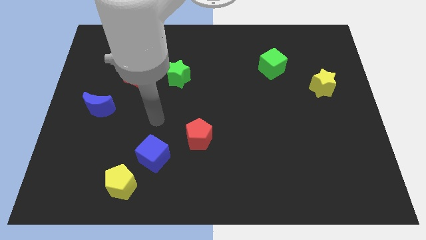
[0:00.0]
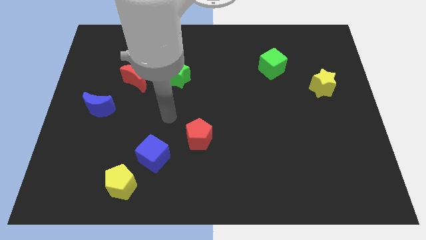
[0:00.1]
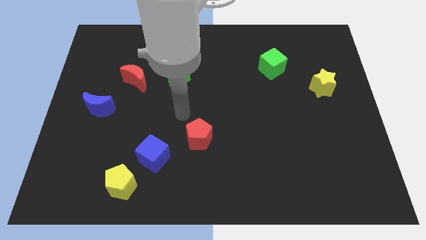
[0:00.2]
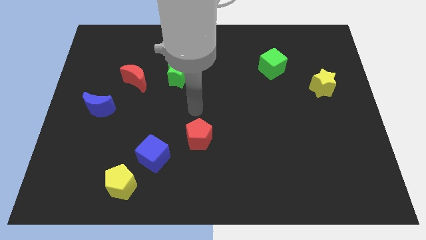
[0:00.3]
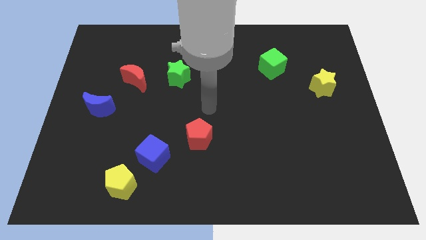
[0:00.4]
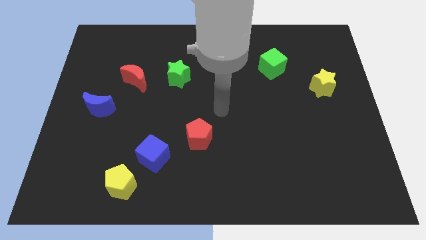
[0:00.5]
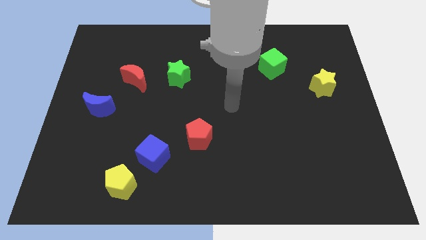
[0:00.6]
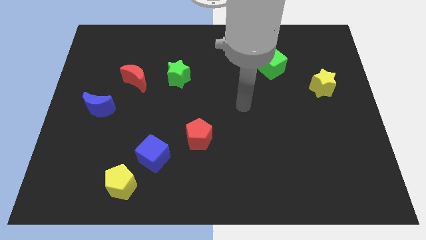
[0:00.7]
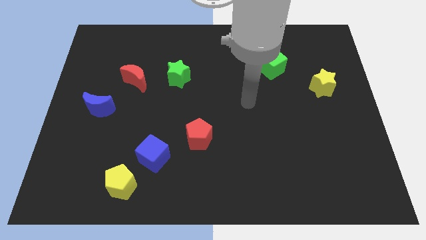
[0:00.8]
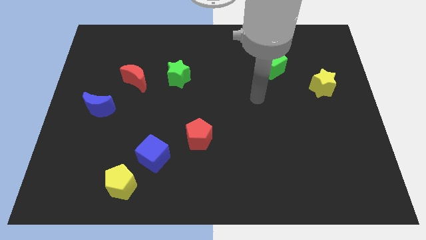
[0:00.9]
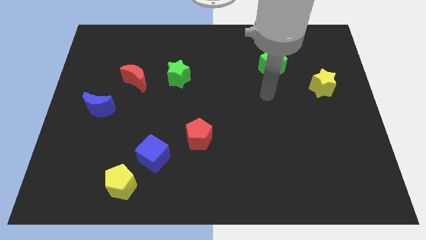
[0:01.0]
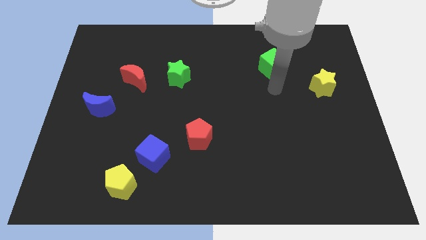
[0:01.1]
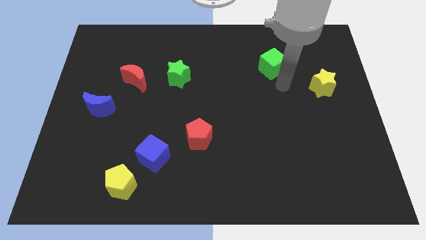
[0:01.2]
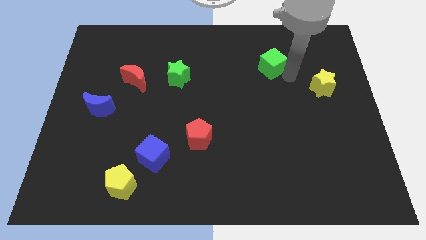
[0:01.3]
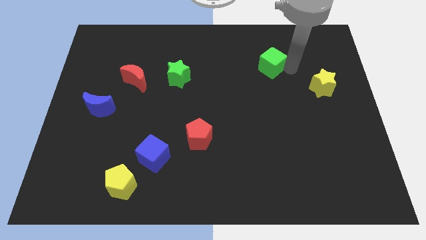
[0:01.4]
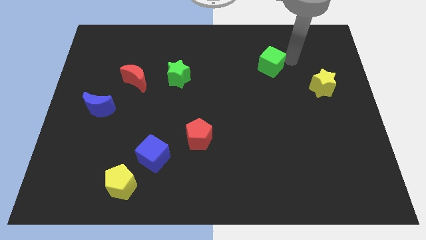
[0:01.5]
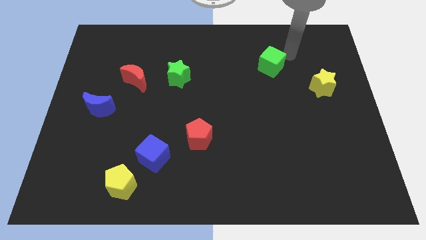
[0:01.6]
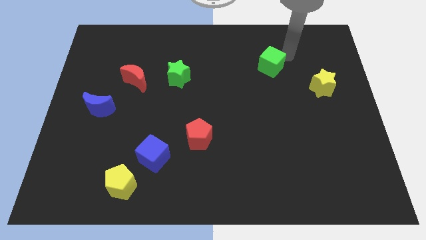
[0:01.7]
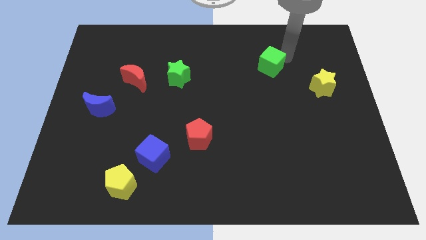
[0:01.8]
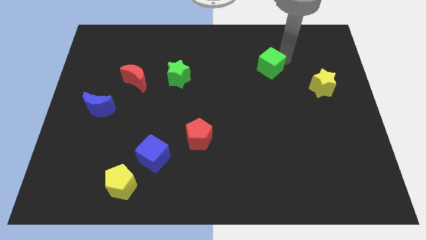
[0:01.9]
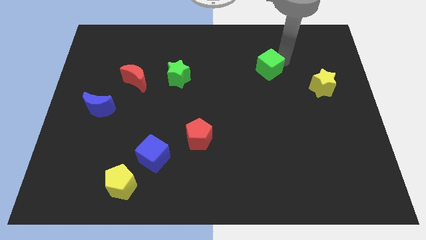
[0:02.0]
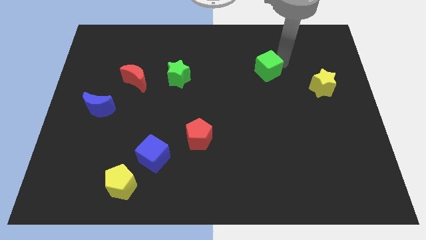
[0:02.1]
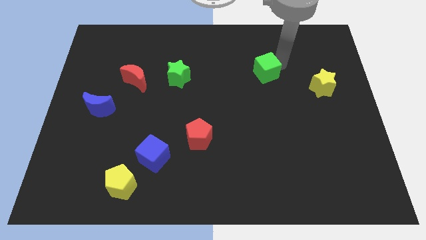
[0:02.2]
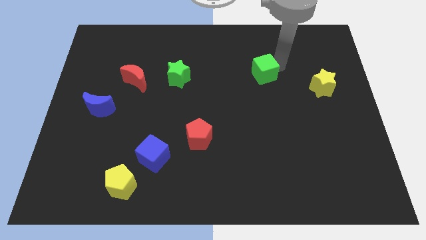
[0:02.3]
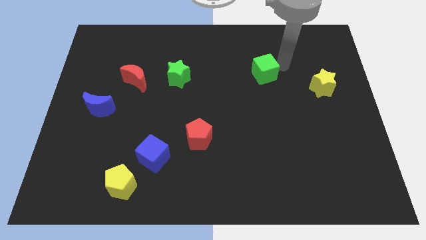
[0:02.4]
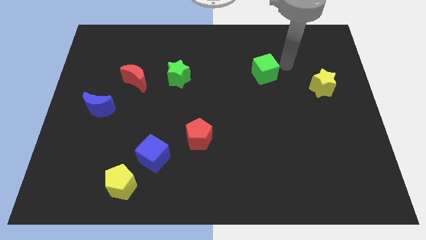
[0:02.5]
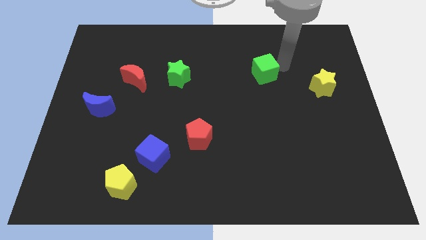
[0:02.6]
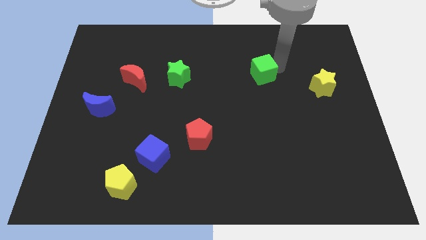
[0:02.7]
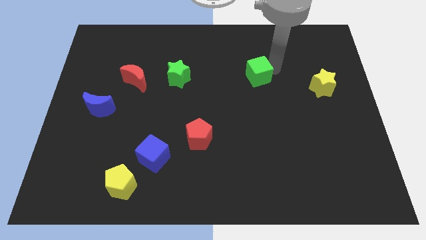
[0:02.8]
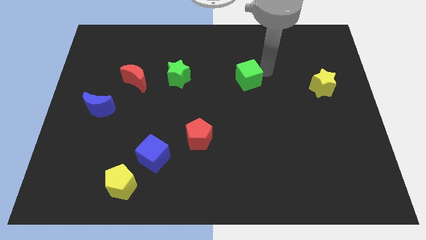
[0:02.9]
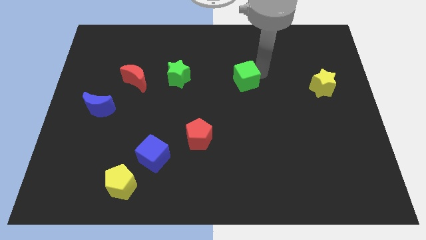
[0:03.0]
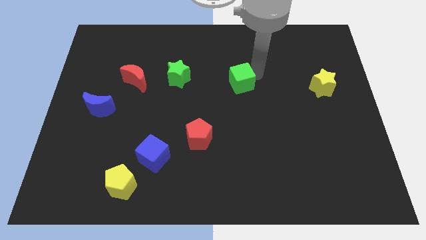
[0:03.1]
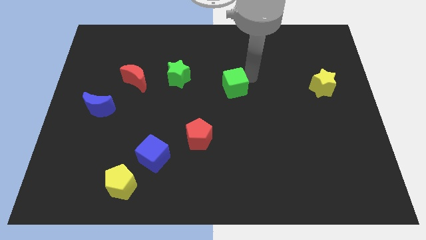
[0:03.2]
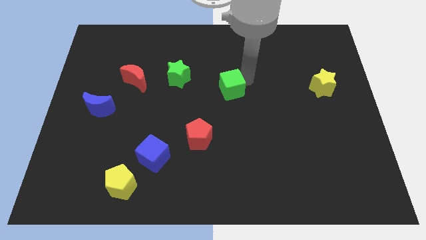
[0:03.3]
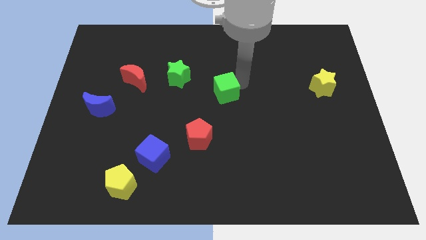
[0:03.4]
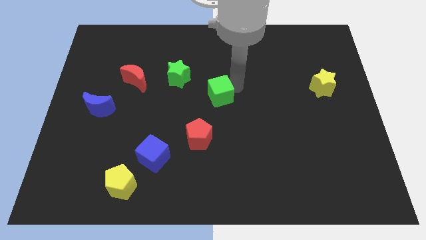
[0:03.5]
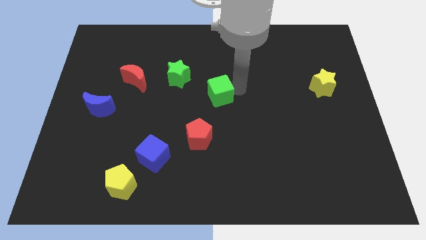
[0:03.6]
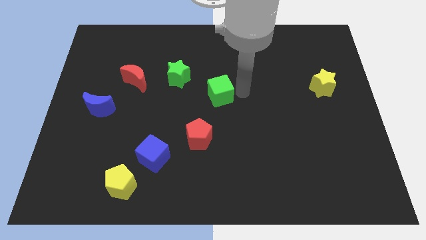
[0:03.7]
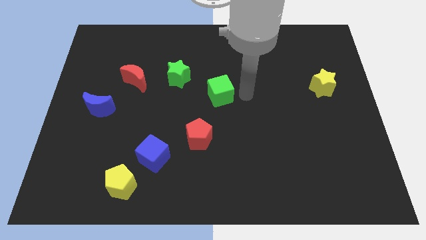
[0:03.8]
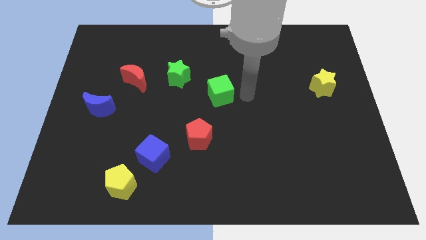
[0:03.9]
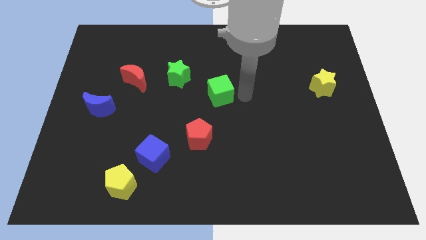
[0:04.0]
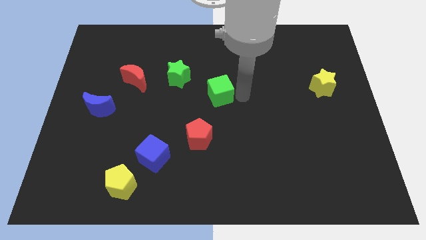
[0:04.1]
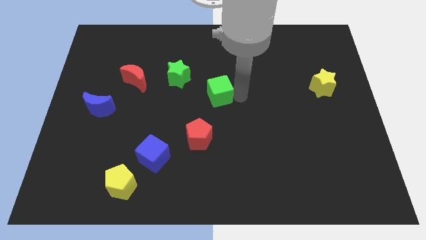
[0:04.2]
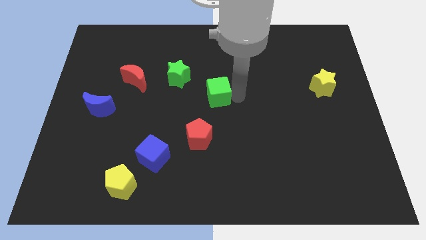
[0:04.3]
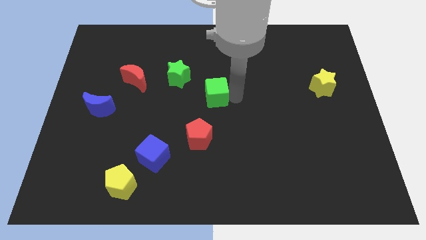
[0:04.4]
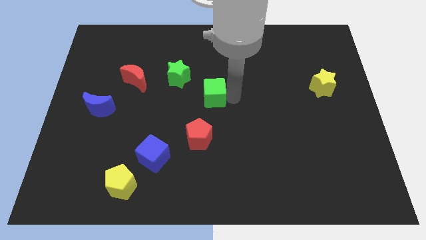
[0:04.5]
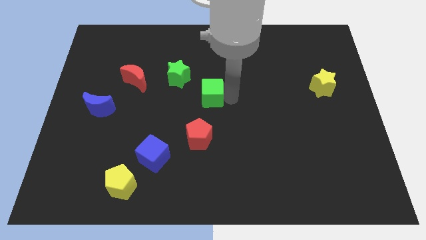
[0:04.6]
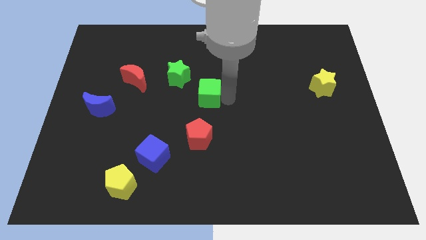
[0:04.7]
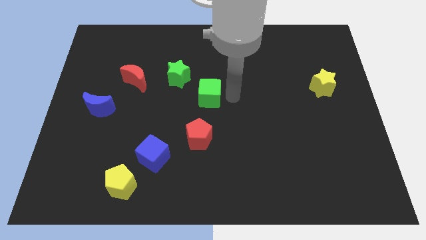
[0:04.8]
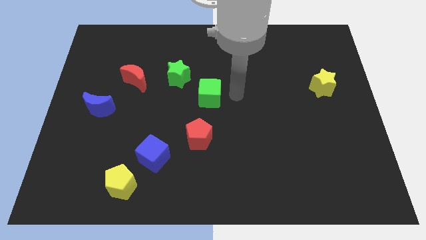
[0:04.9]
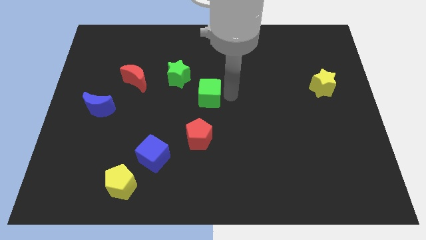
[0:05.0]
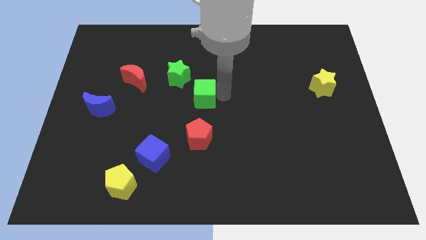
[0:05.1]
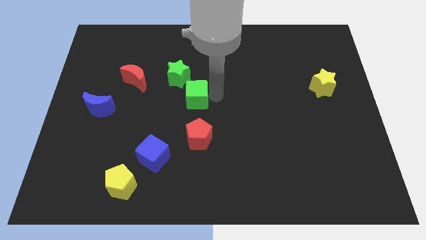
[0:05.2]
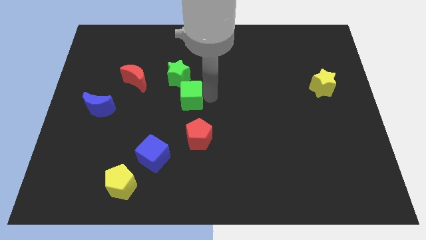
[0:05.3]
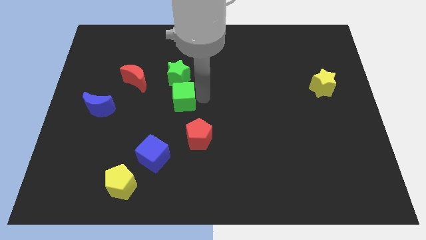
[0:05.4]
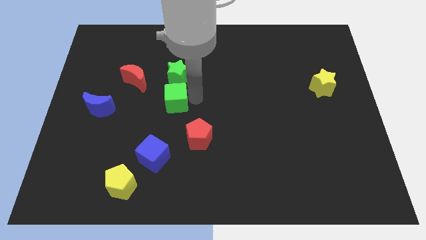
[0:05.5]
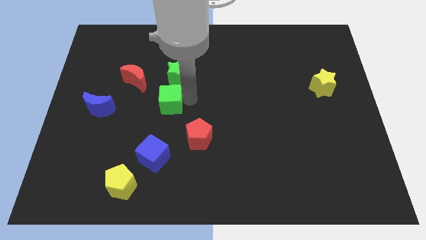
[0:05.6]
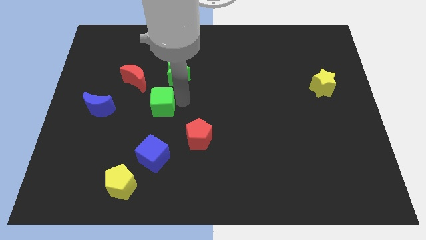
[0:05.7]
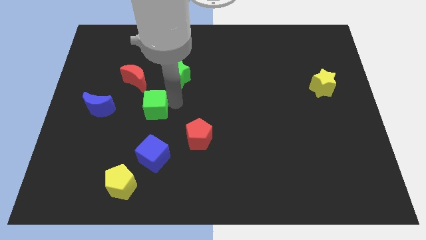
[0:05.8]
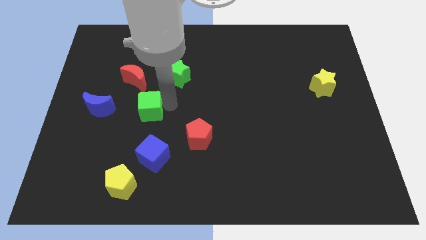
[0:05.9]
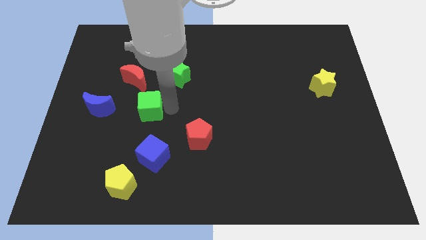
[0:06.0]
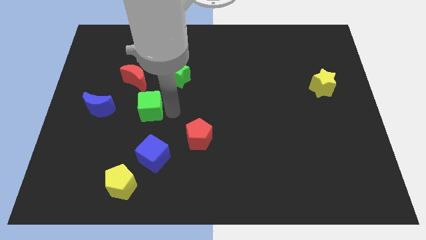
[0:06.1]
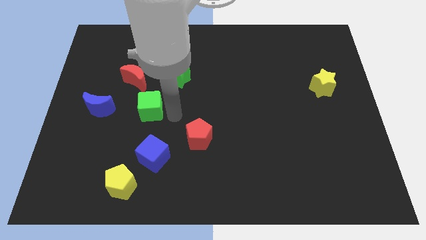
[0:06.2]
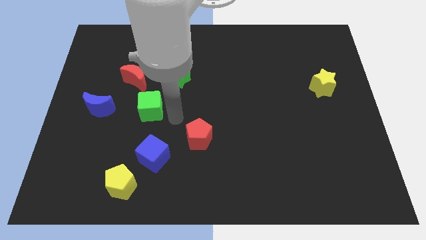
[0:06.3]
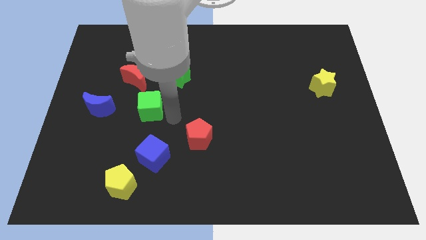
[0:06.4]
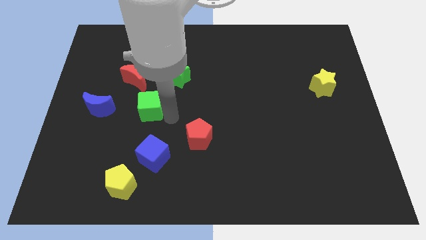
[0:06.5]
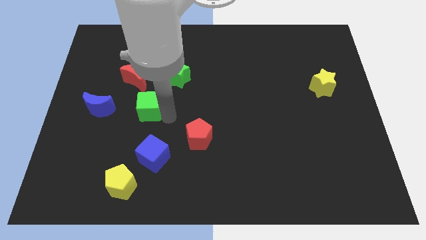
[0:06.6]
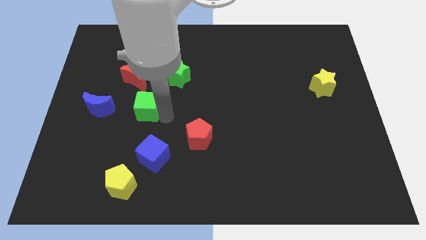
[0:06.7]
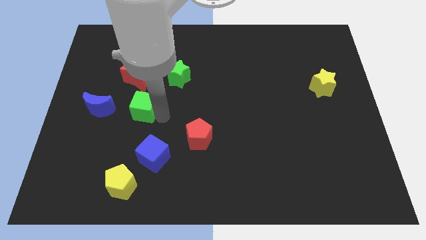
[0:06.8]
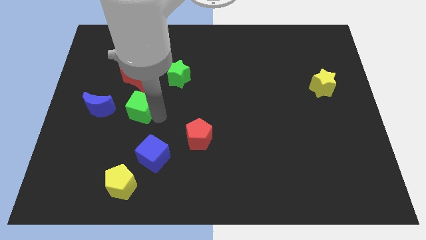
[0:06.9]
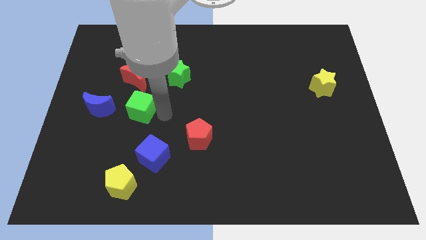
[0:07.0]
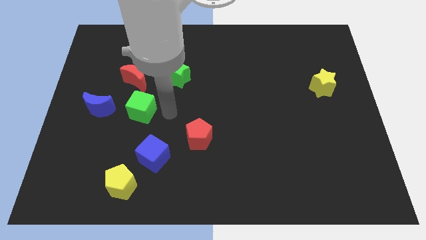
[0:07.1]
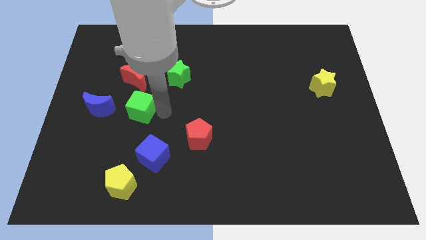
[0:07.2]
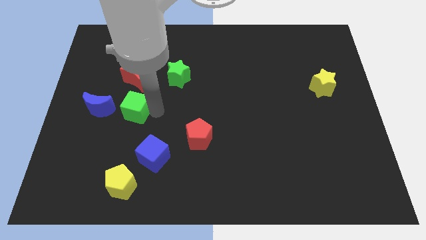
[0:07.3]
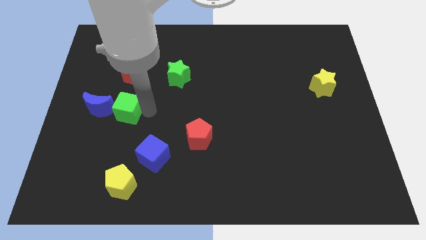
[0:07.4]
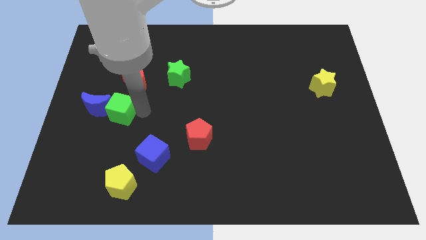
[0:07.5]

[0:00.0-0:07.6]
put the green cube next to the blue moon

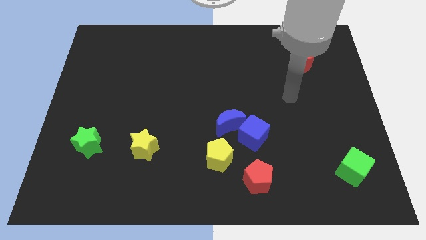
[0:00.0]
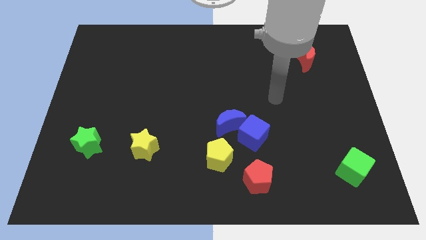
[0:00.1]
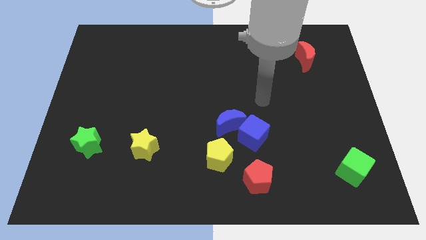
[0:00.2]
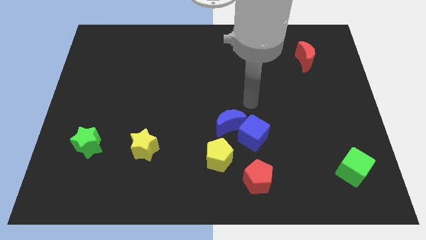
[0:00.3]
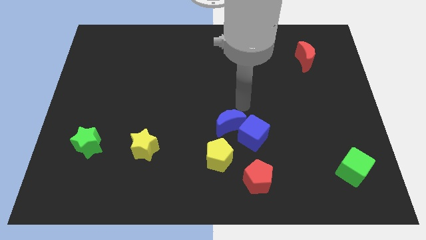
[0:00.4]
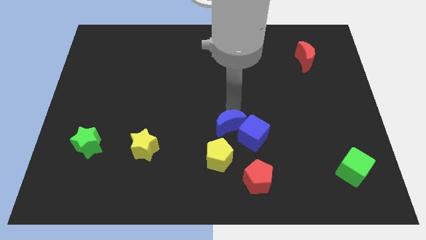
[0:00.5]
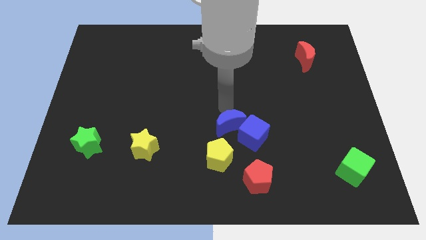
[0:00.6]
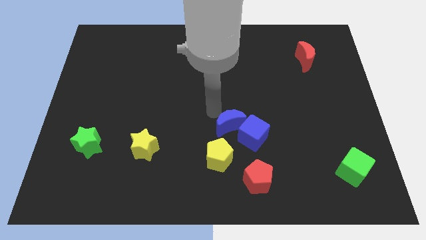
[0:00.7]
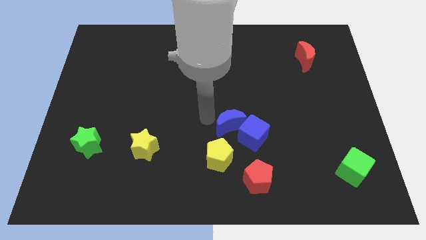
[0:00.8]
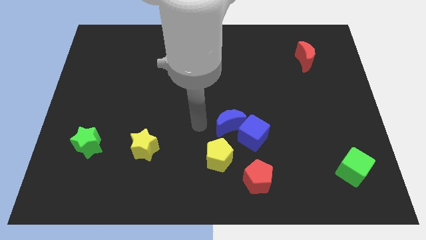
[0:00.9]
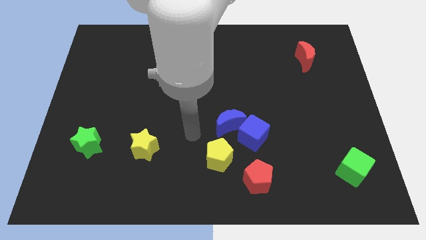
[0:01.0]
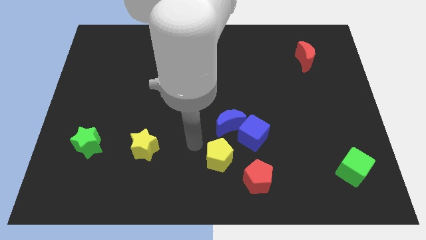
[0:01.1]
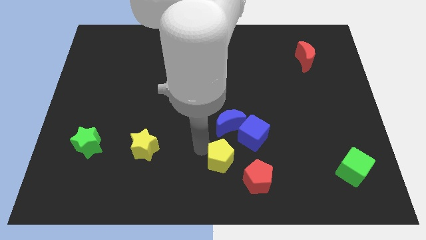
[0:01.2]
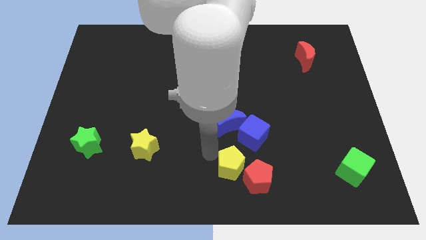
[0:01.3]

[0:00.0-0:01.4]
push the yellow pentagon next to the red pentagon
